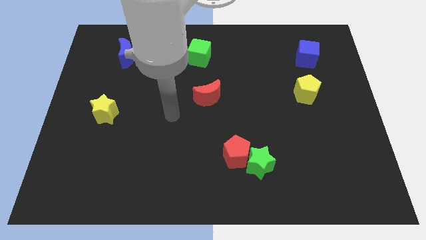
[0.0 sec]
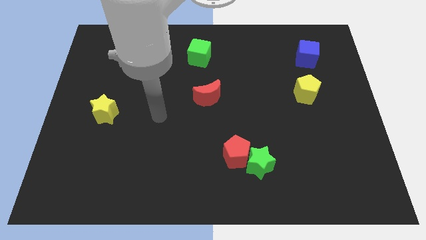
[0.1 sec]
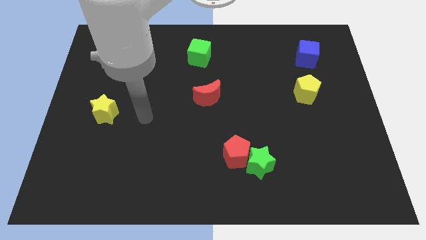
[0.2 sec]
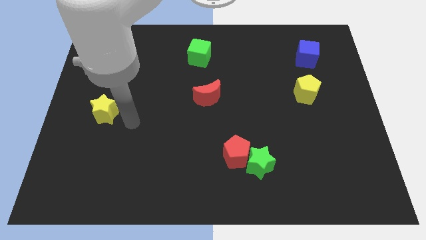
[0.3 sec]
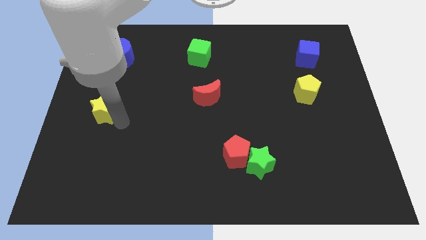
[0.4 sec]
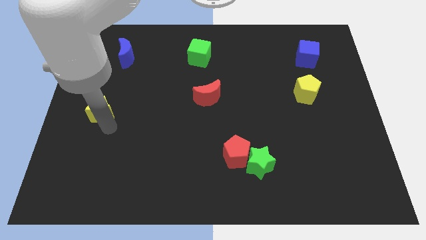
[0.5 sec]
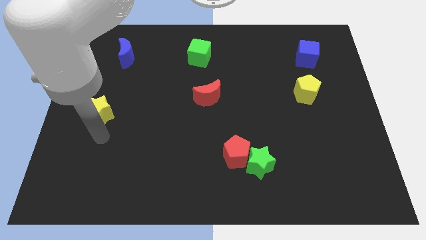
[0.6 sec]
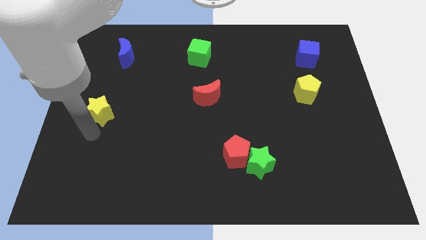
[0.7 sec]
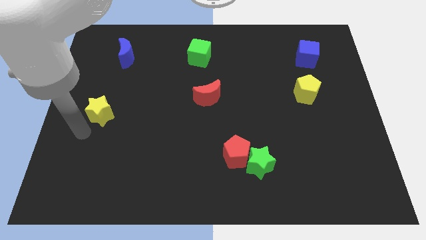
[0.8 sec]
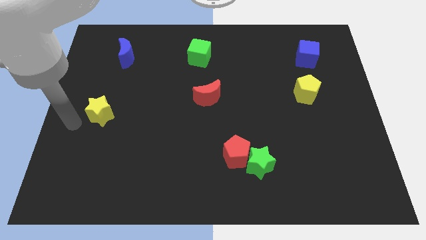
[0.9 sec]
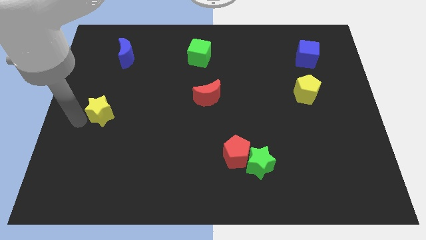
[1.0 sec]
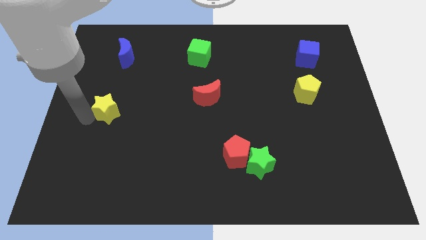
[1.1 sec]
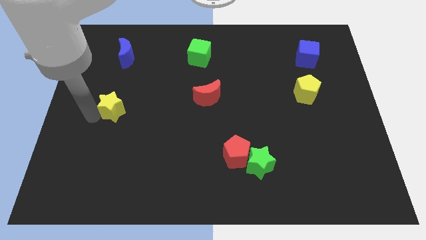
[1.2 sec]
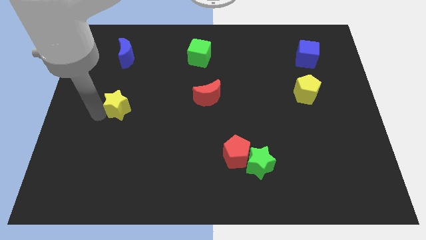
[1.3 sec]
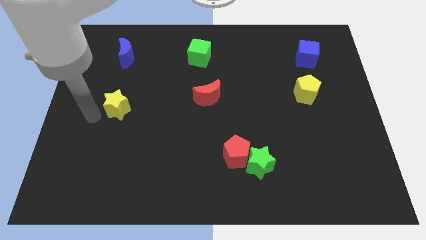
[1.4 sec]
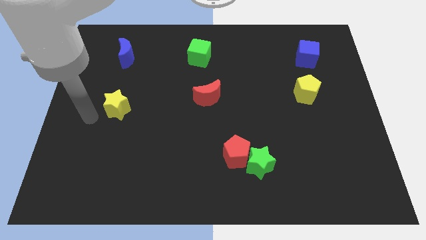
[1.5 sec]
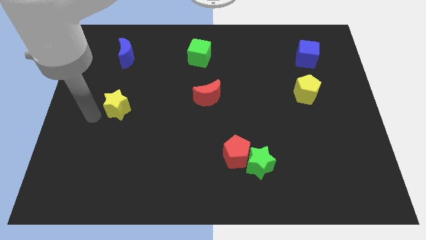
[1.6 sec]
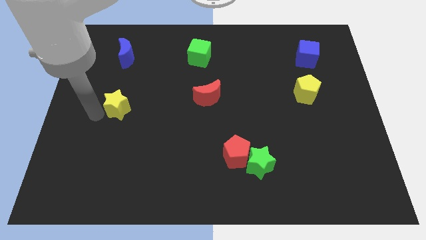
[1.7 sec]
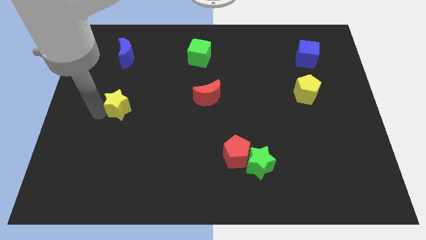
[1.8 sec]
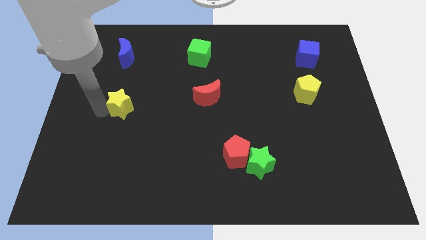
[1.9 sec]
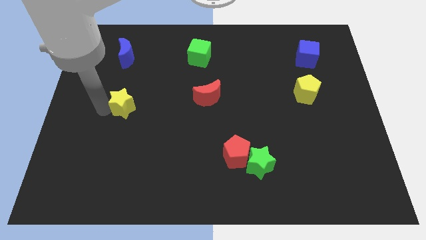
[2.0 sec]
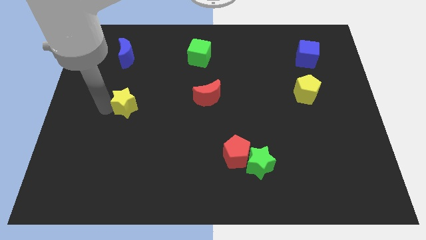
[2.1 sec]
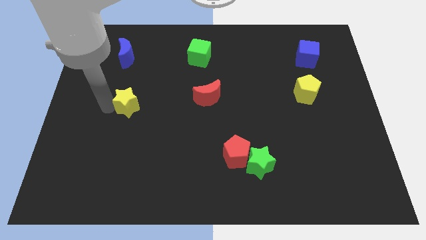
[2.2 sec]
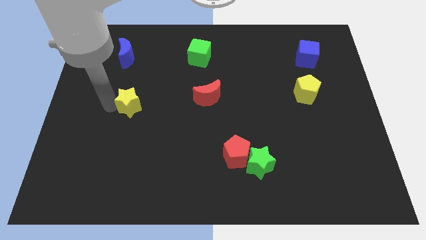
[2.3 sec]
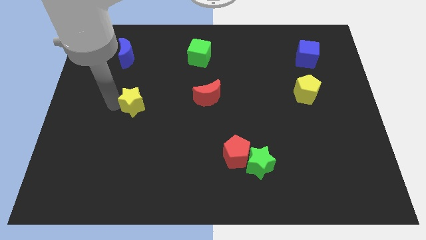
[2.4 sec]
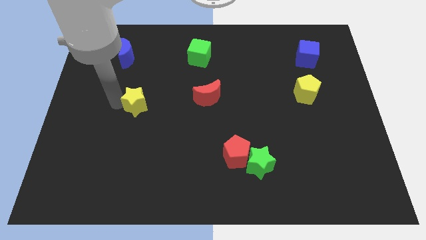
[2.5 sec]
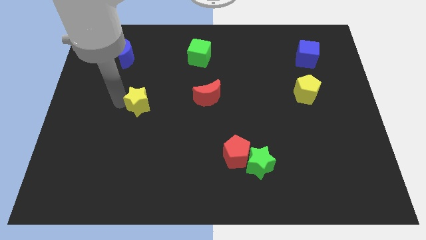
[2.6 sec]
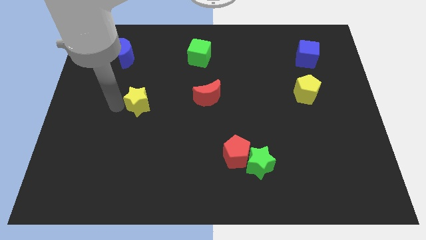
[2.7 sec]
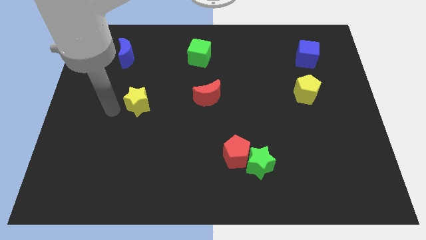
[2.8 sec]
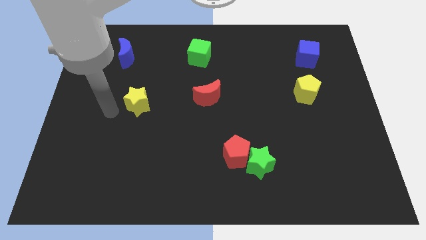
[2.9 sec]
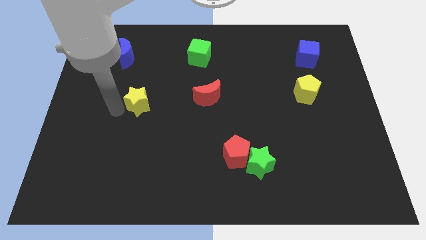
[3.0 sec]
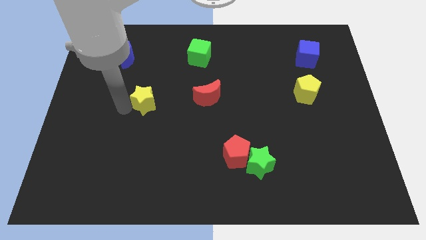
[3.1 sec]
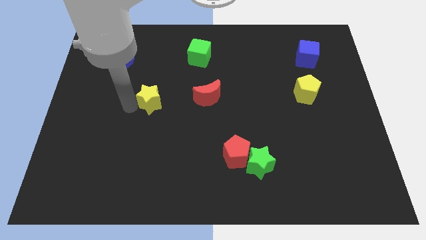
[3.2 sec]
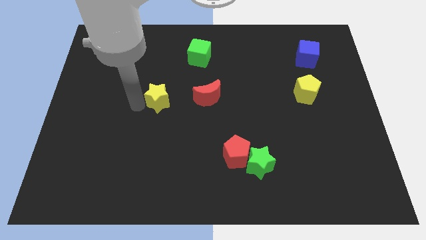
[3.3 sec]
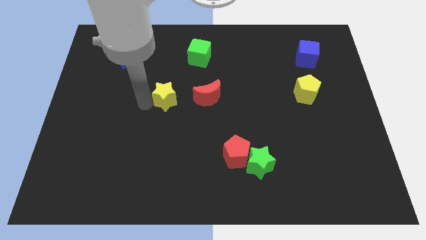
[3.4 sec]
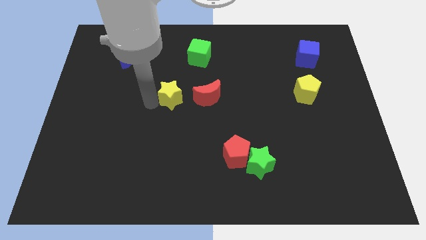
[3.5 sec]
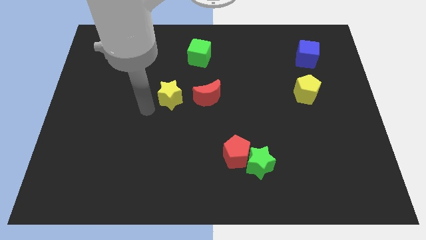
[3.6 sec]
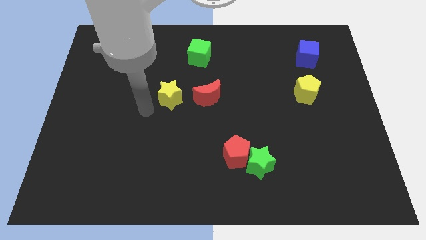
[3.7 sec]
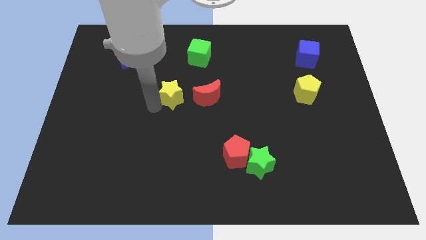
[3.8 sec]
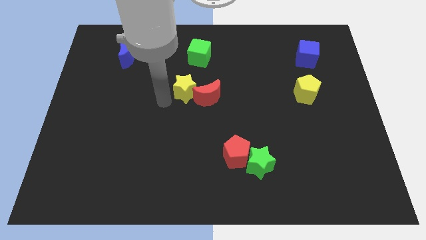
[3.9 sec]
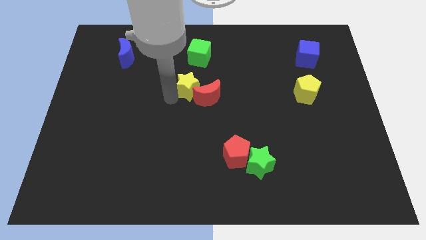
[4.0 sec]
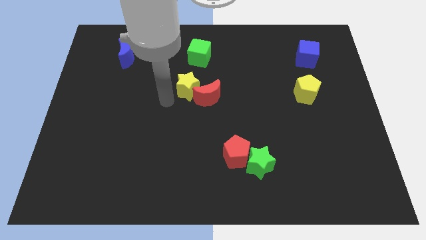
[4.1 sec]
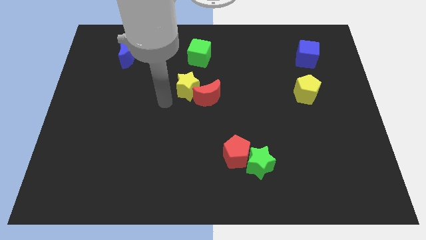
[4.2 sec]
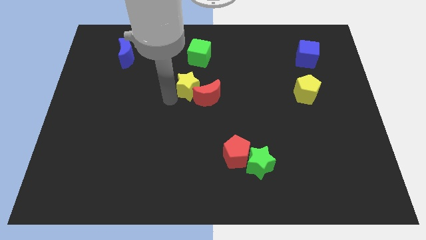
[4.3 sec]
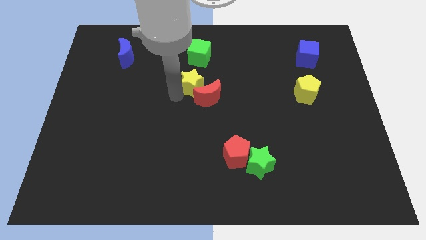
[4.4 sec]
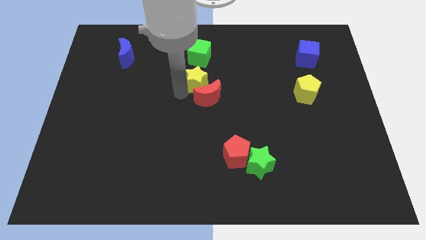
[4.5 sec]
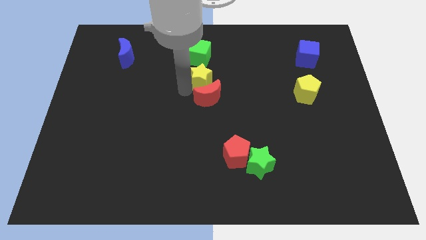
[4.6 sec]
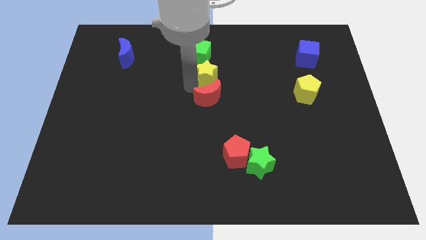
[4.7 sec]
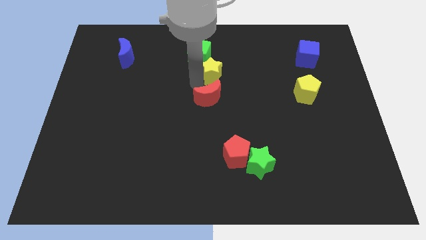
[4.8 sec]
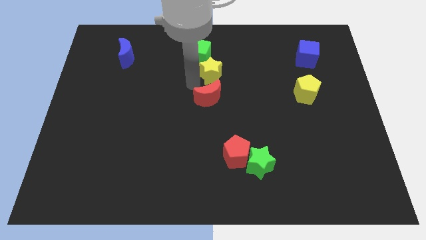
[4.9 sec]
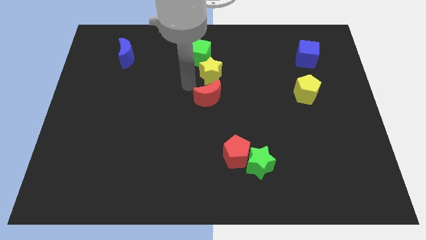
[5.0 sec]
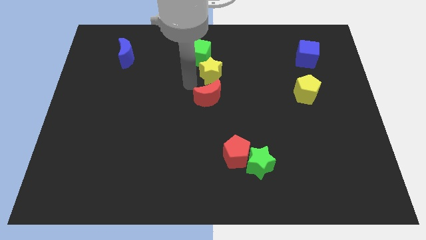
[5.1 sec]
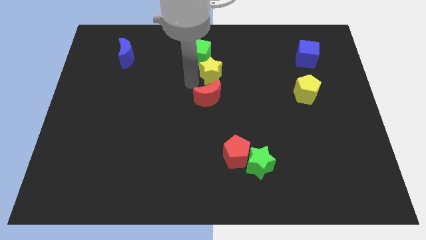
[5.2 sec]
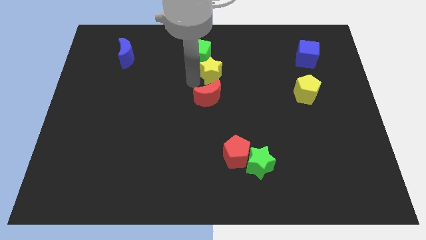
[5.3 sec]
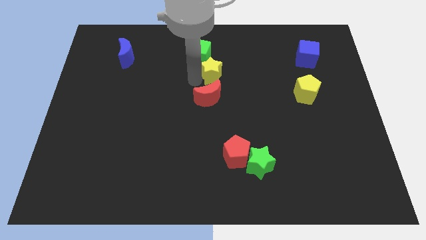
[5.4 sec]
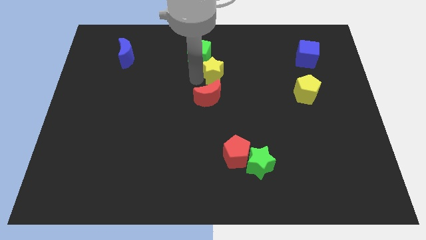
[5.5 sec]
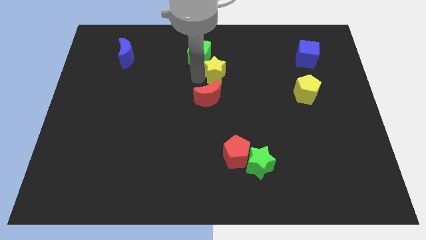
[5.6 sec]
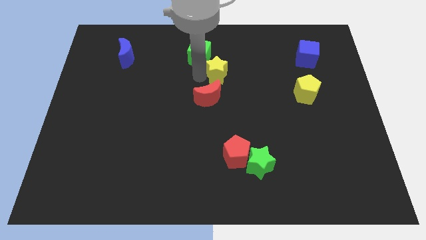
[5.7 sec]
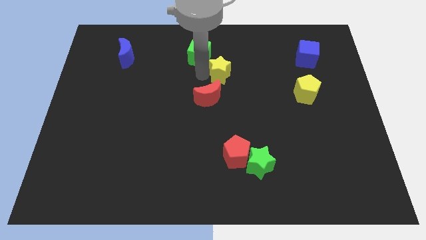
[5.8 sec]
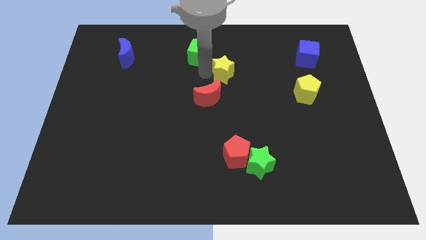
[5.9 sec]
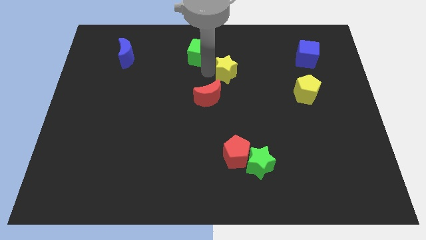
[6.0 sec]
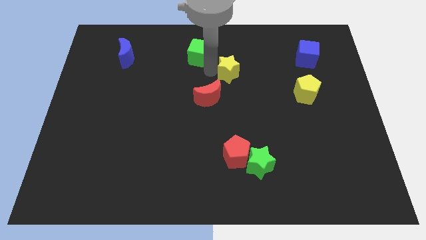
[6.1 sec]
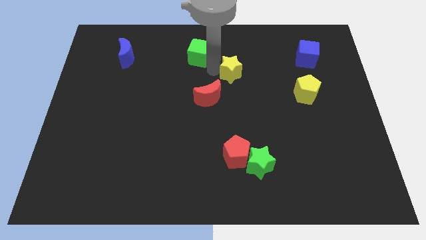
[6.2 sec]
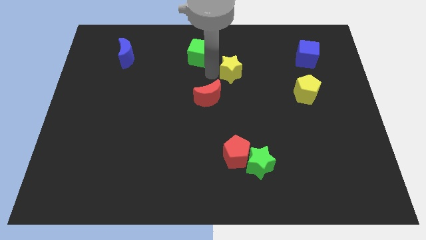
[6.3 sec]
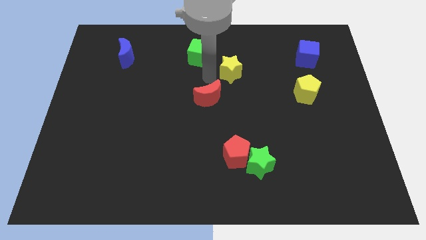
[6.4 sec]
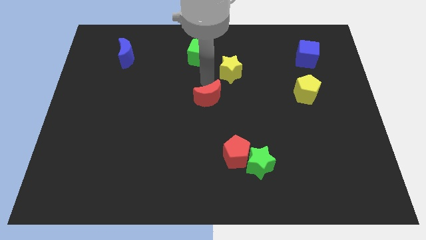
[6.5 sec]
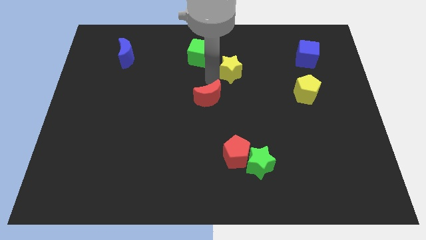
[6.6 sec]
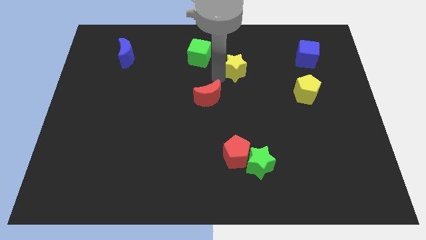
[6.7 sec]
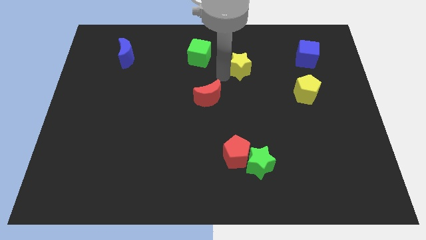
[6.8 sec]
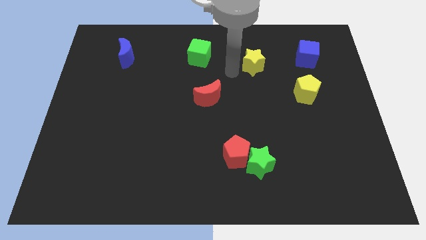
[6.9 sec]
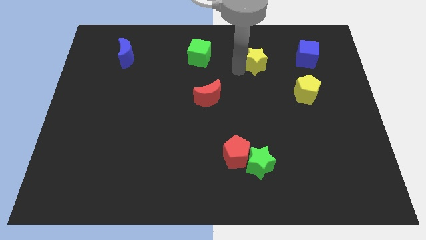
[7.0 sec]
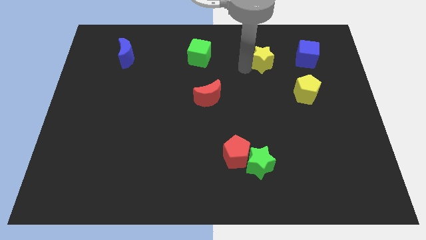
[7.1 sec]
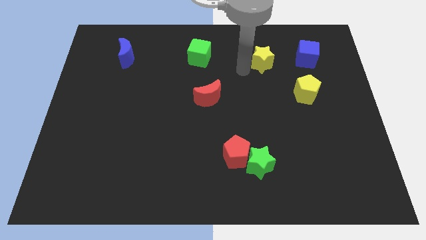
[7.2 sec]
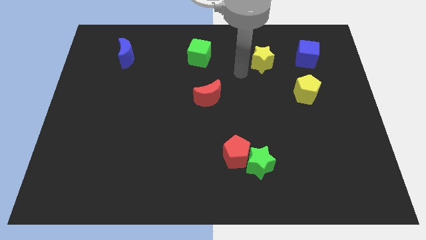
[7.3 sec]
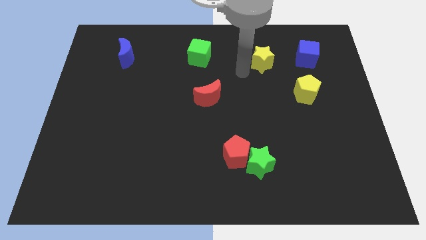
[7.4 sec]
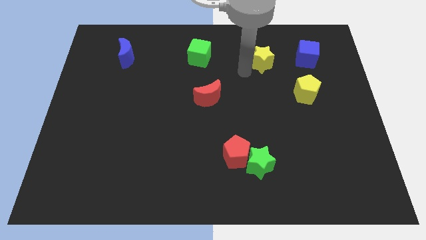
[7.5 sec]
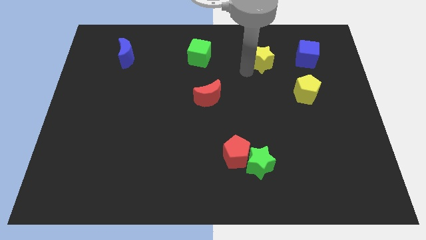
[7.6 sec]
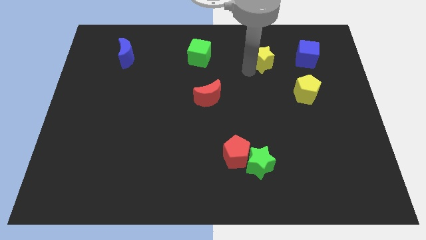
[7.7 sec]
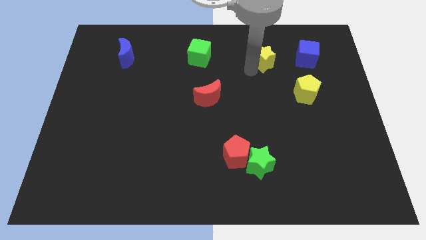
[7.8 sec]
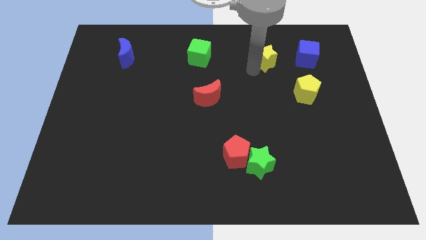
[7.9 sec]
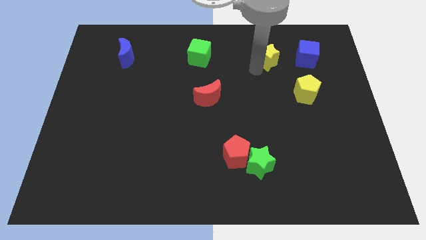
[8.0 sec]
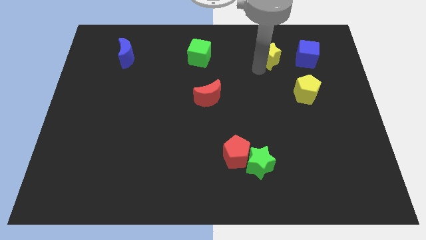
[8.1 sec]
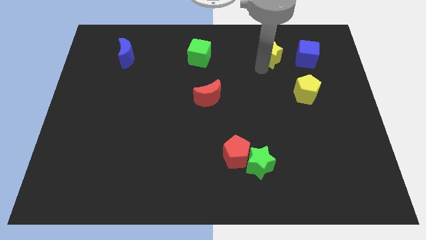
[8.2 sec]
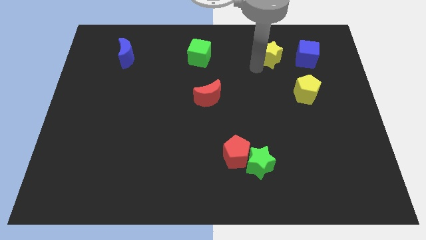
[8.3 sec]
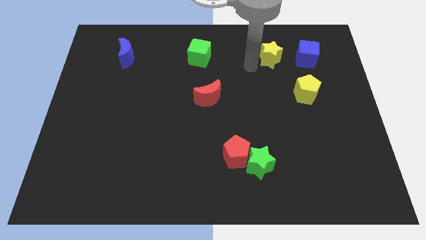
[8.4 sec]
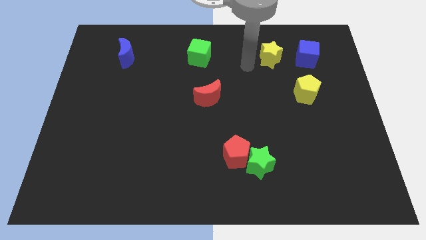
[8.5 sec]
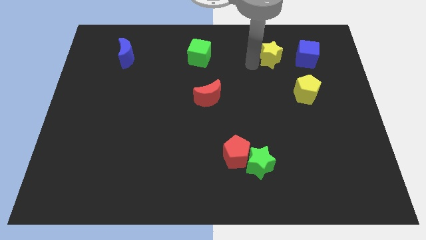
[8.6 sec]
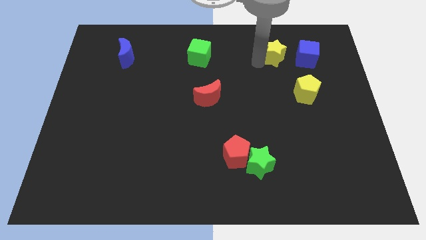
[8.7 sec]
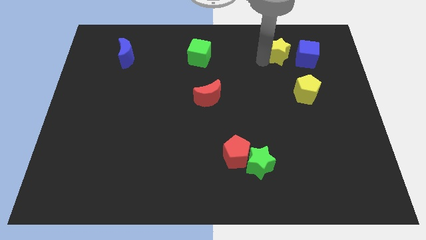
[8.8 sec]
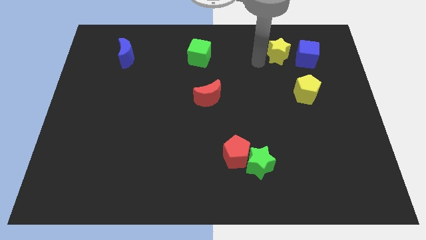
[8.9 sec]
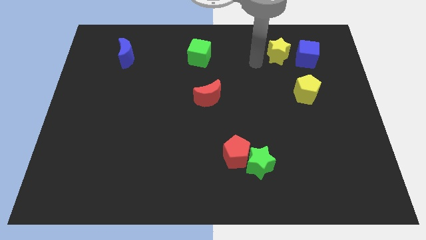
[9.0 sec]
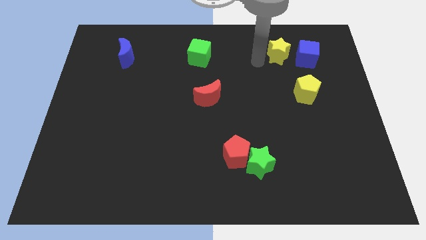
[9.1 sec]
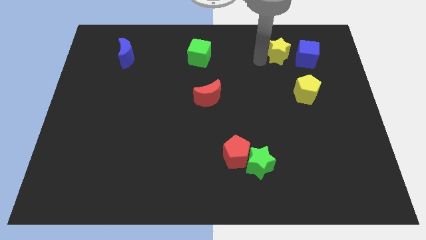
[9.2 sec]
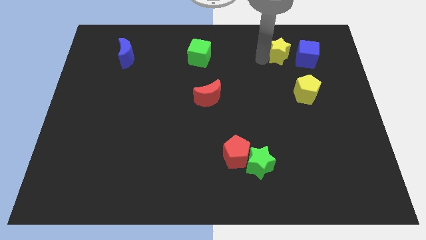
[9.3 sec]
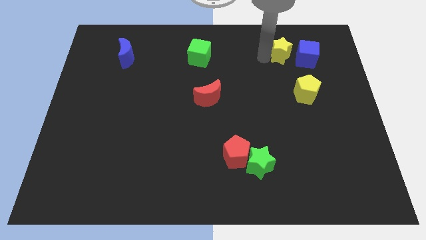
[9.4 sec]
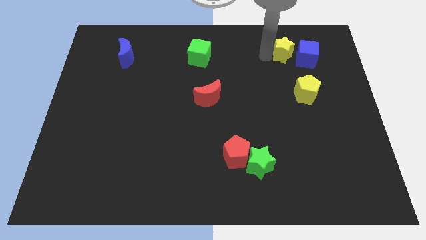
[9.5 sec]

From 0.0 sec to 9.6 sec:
slide the yellow star to the top side of the yellow pentagon
